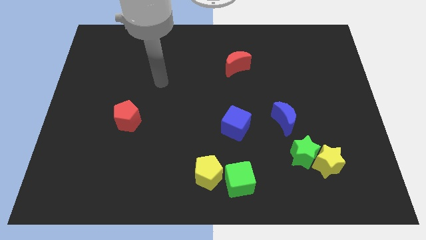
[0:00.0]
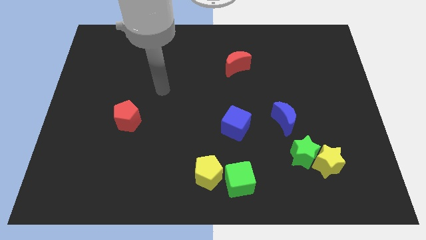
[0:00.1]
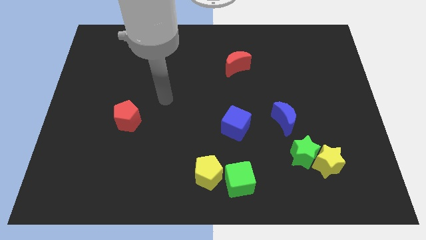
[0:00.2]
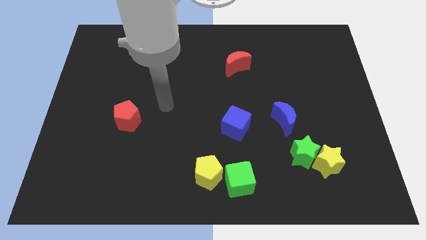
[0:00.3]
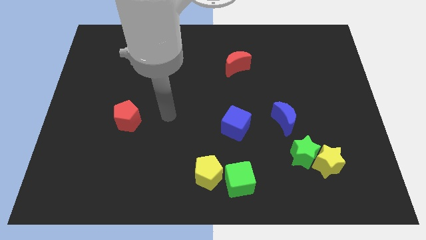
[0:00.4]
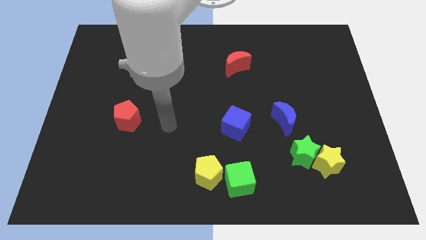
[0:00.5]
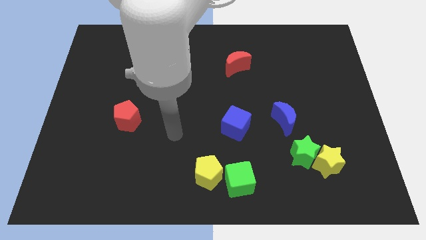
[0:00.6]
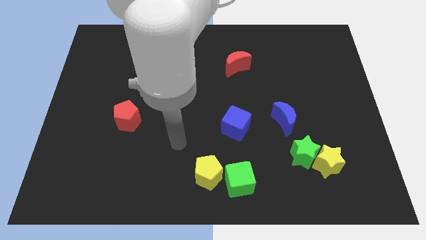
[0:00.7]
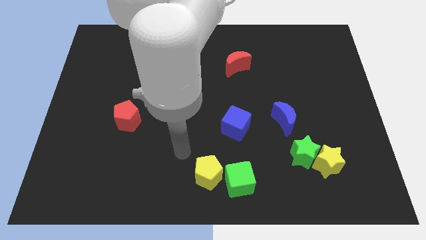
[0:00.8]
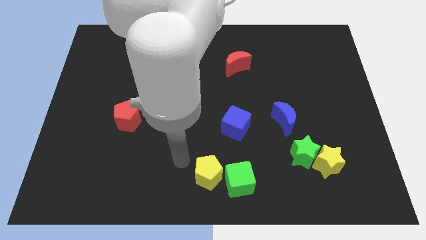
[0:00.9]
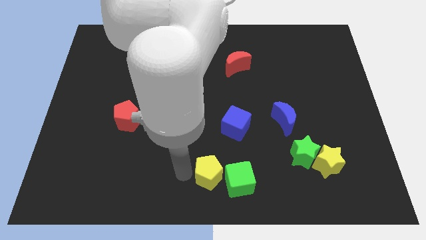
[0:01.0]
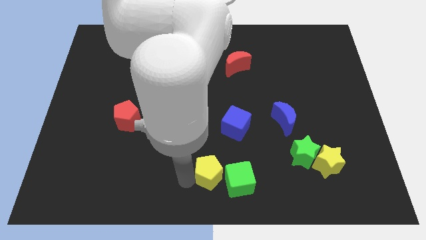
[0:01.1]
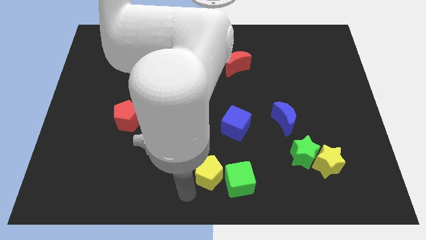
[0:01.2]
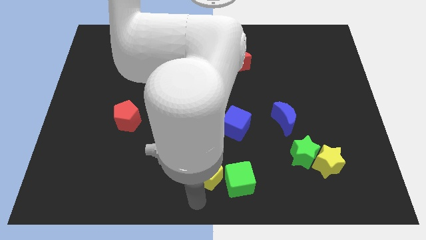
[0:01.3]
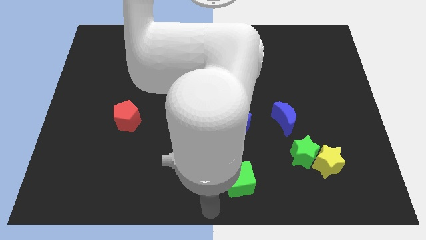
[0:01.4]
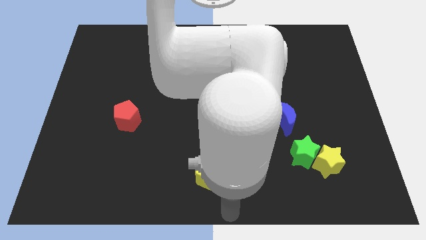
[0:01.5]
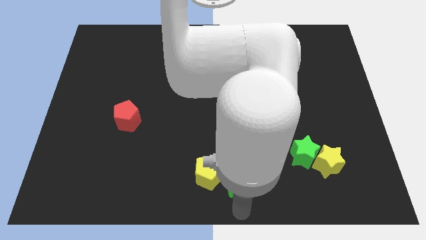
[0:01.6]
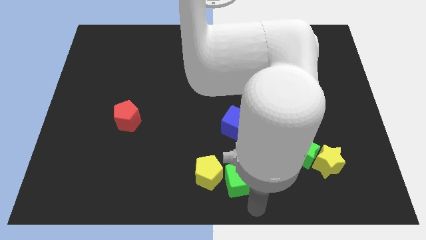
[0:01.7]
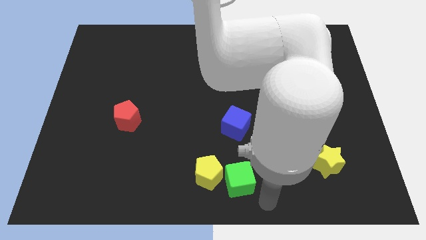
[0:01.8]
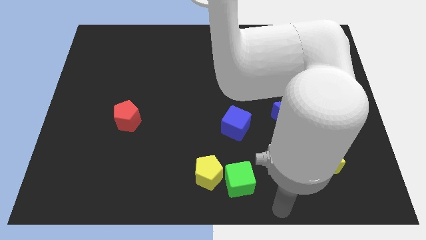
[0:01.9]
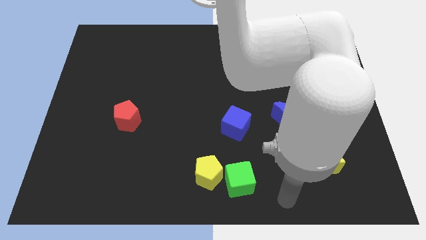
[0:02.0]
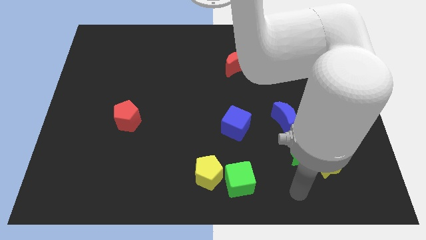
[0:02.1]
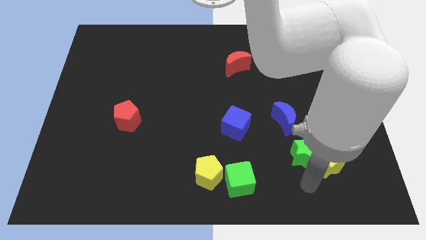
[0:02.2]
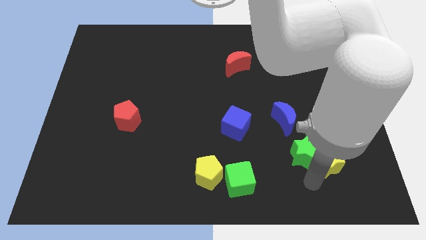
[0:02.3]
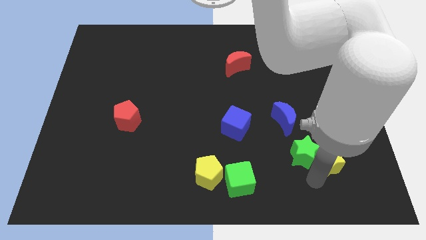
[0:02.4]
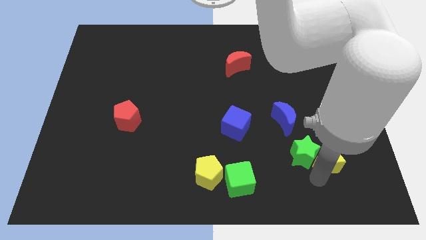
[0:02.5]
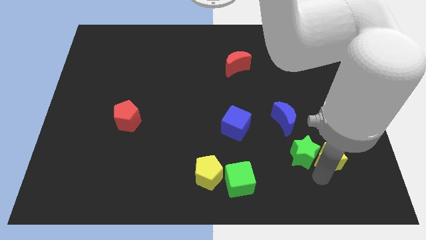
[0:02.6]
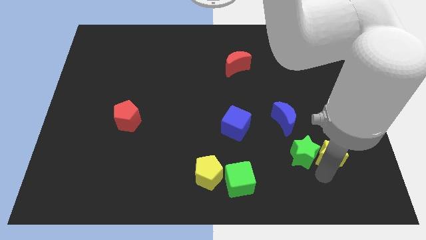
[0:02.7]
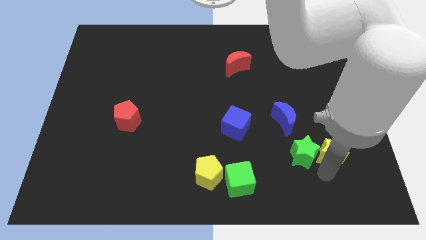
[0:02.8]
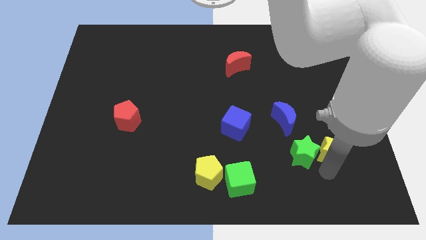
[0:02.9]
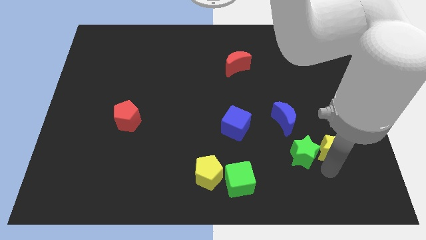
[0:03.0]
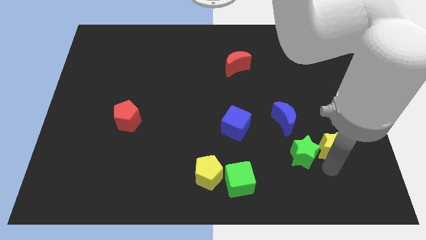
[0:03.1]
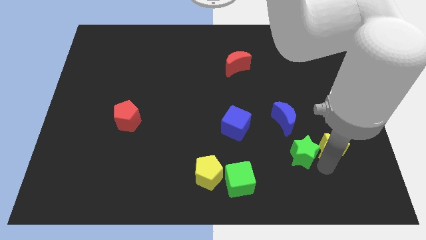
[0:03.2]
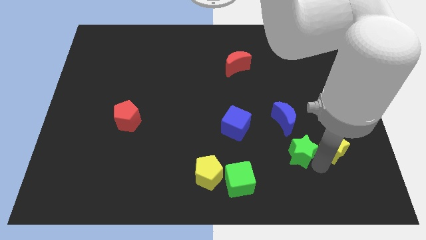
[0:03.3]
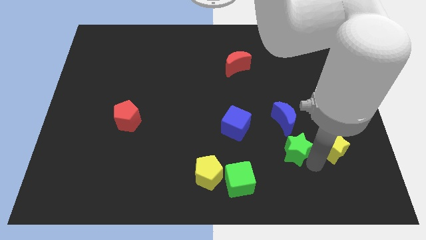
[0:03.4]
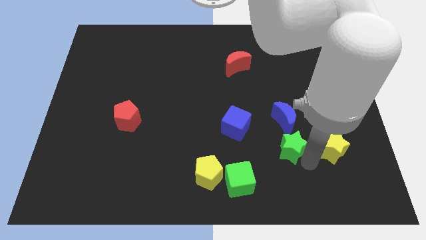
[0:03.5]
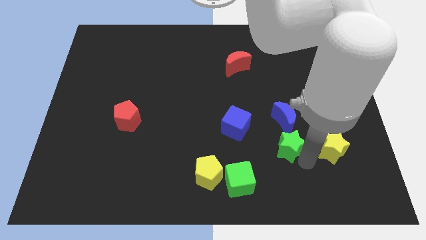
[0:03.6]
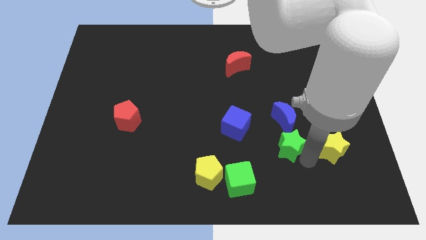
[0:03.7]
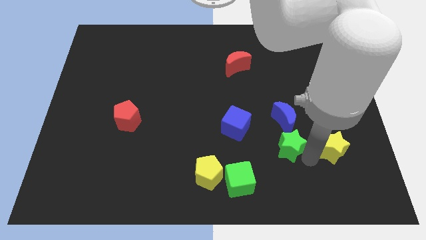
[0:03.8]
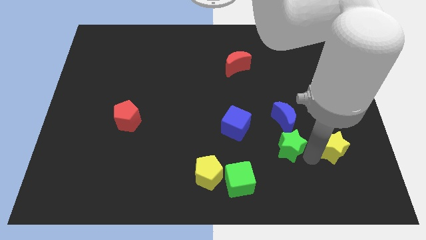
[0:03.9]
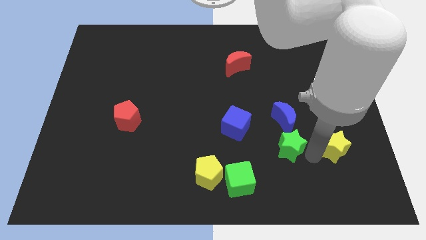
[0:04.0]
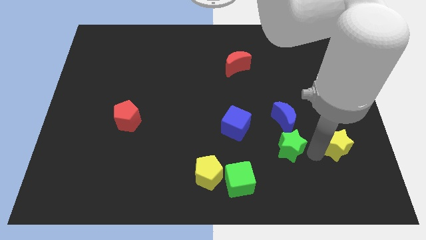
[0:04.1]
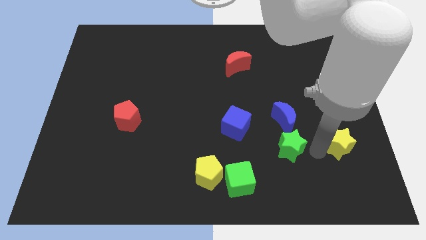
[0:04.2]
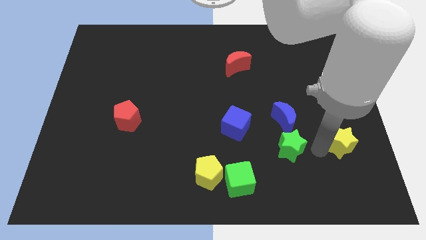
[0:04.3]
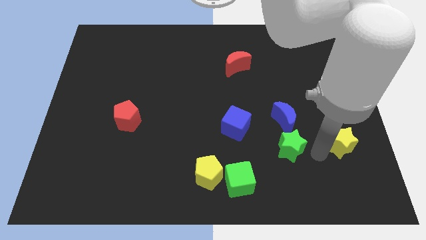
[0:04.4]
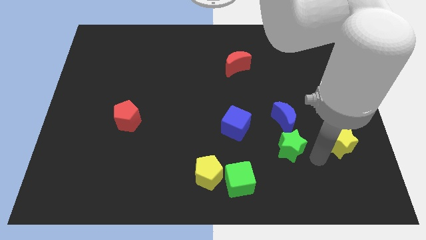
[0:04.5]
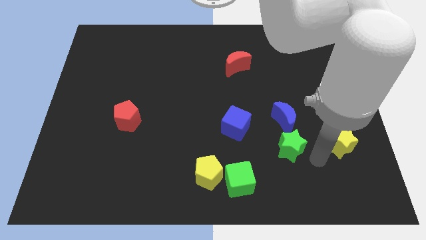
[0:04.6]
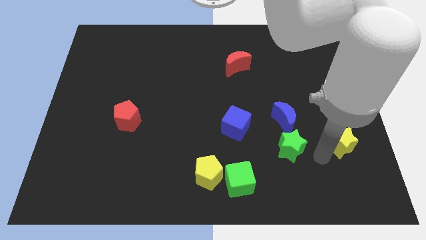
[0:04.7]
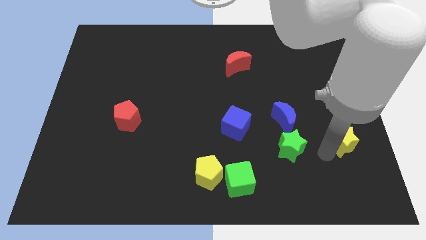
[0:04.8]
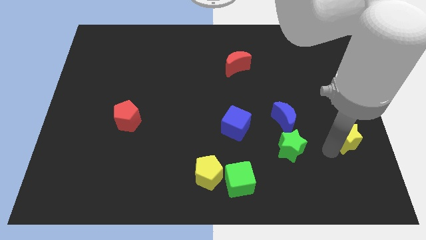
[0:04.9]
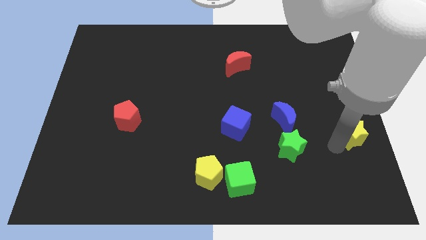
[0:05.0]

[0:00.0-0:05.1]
move the yellow star to the center right

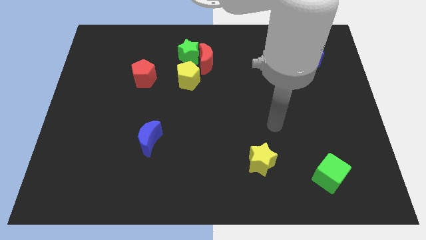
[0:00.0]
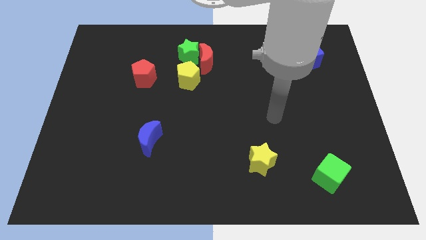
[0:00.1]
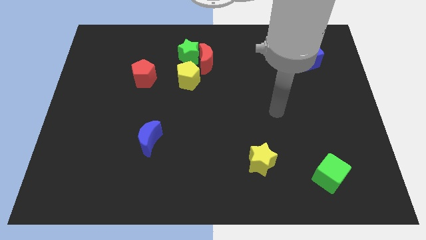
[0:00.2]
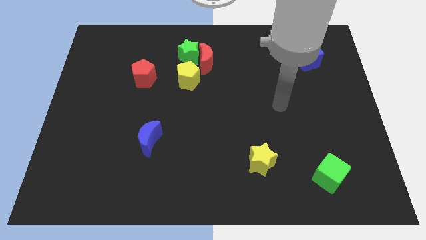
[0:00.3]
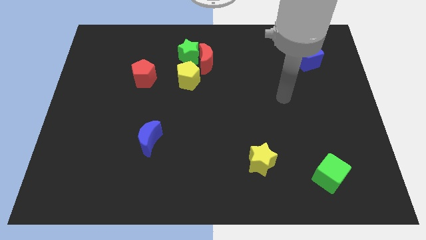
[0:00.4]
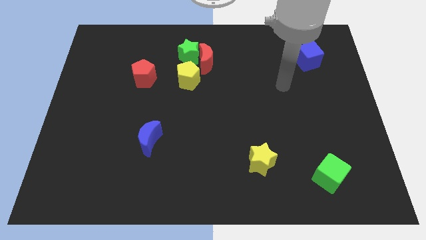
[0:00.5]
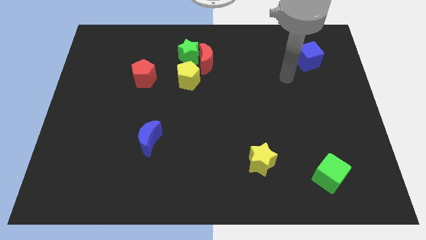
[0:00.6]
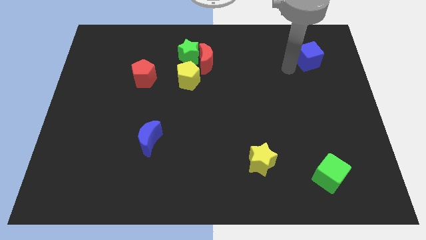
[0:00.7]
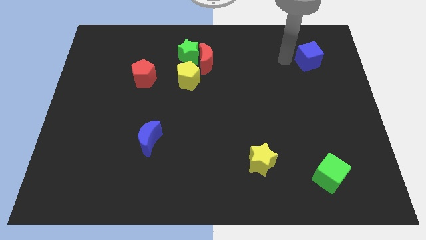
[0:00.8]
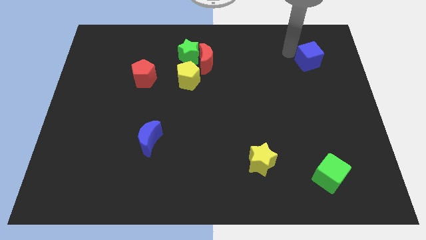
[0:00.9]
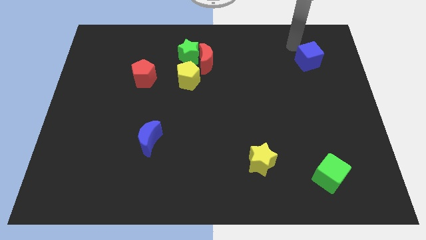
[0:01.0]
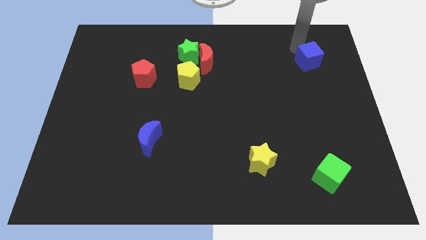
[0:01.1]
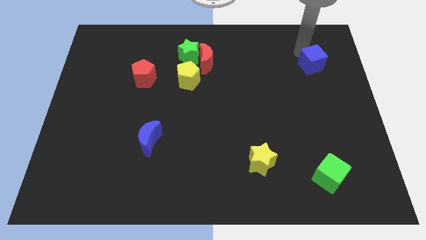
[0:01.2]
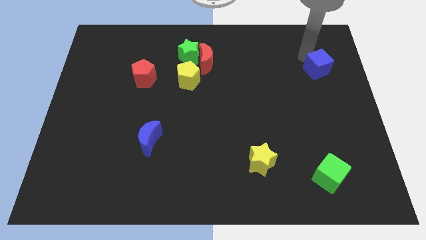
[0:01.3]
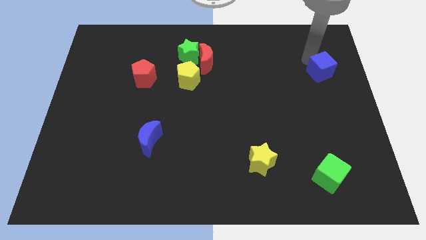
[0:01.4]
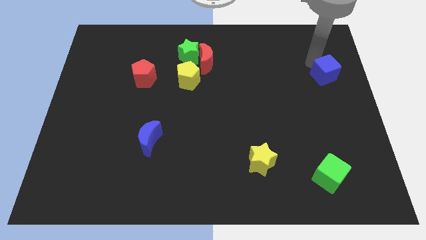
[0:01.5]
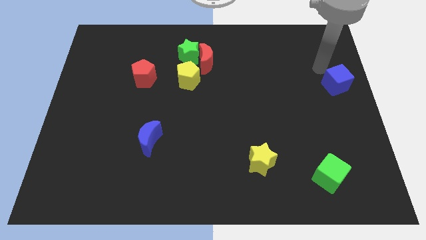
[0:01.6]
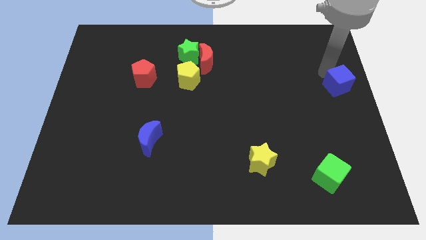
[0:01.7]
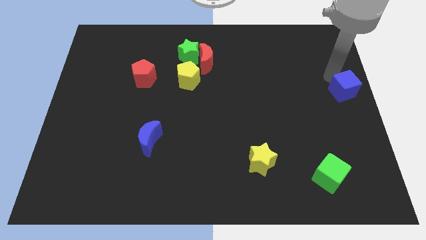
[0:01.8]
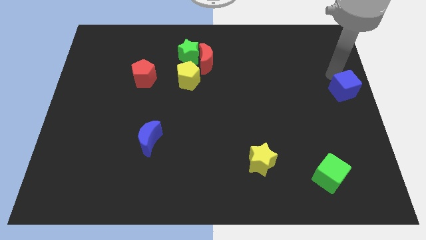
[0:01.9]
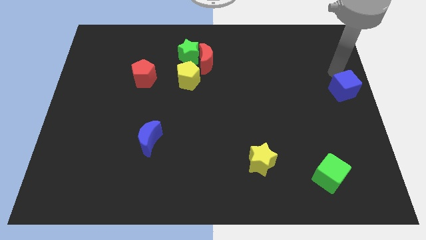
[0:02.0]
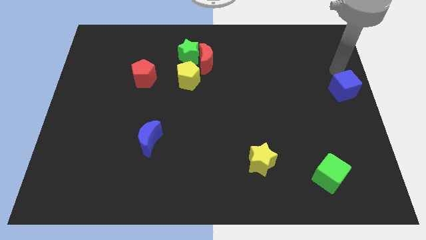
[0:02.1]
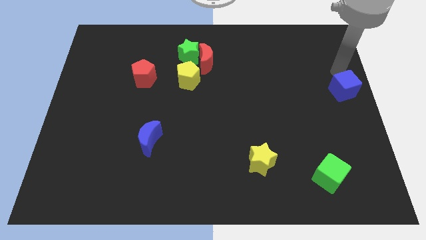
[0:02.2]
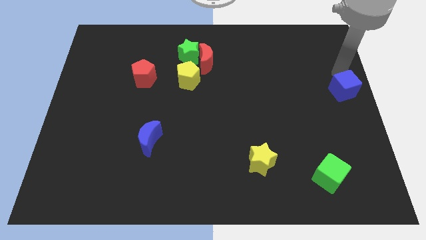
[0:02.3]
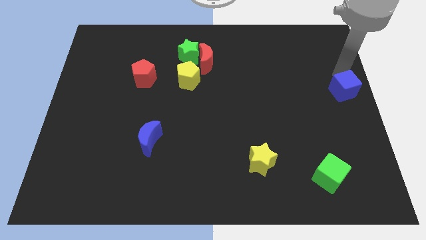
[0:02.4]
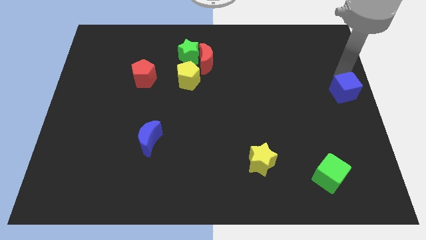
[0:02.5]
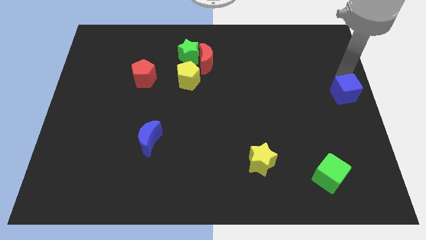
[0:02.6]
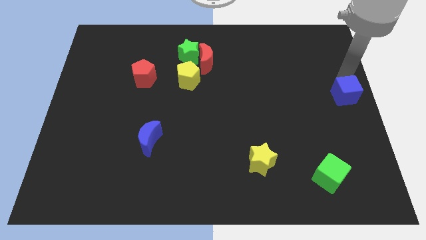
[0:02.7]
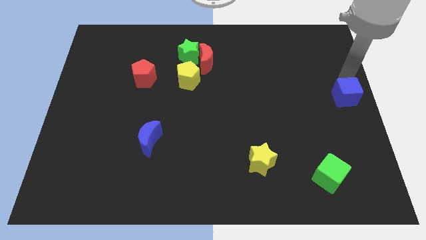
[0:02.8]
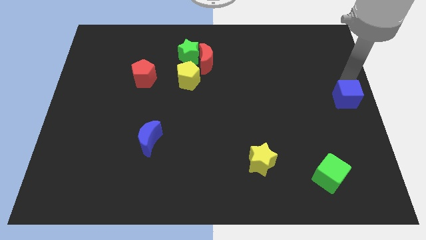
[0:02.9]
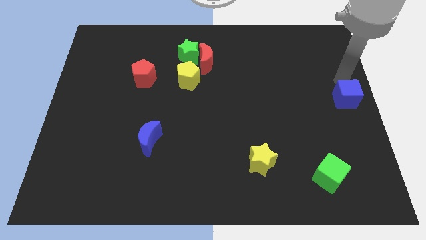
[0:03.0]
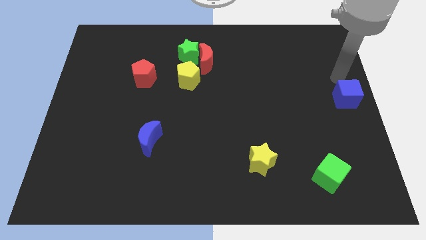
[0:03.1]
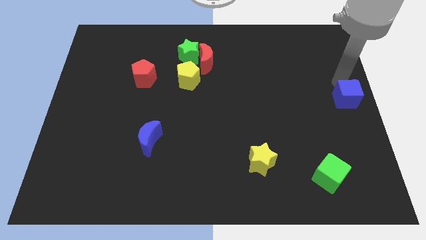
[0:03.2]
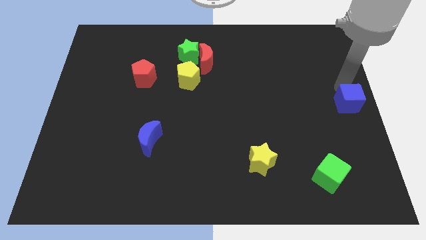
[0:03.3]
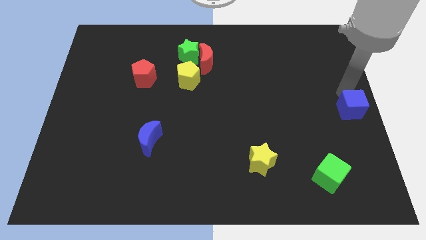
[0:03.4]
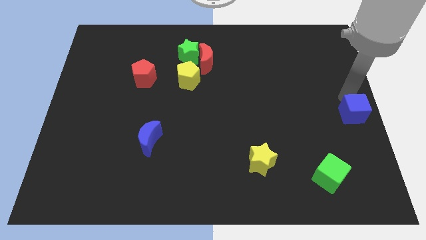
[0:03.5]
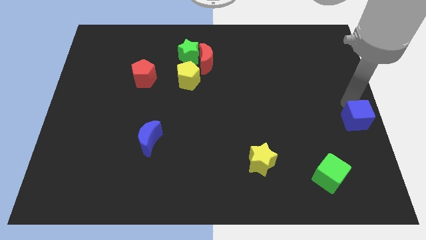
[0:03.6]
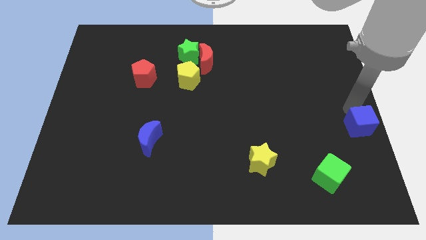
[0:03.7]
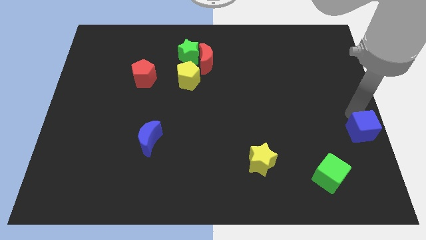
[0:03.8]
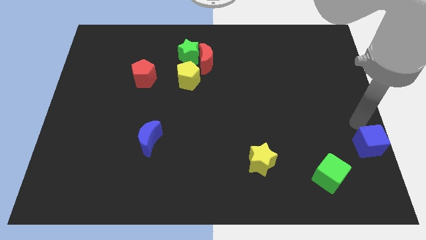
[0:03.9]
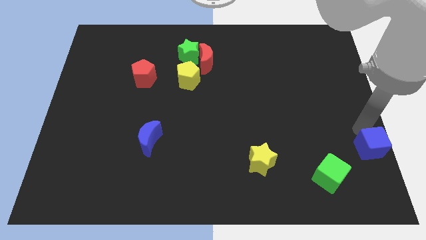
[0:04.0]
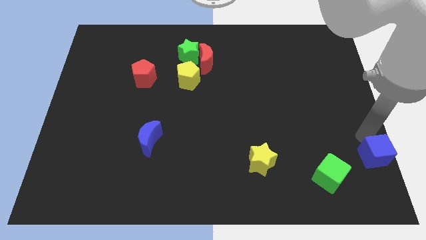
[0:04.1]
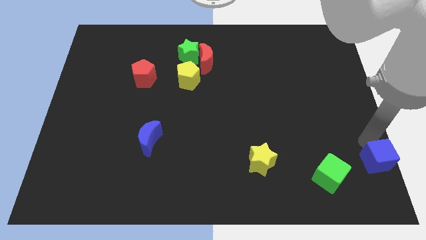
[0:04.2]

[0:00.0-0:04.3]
put the blue cube to the bottom right of the board
